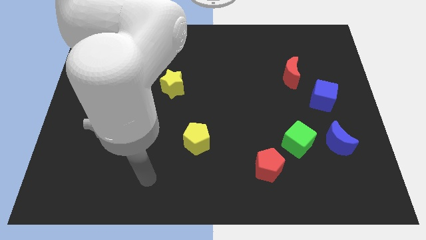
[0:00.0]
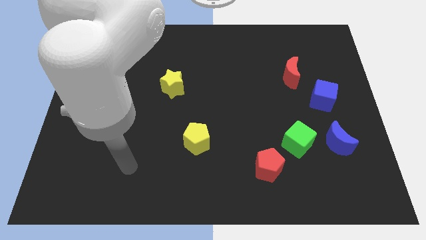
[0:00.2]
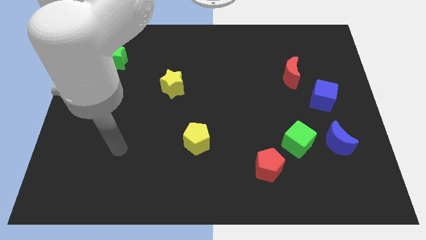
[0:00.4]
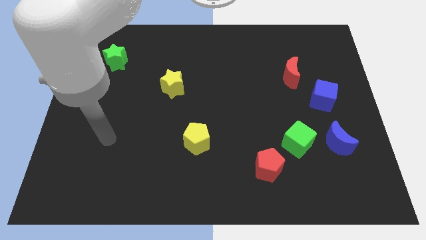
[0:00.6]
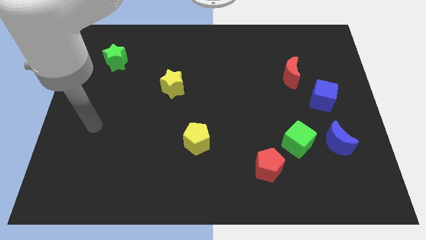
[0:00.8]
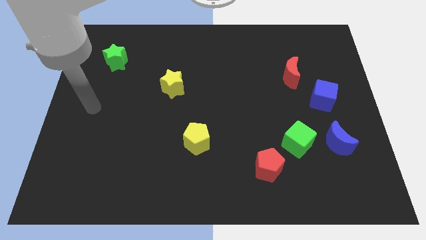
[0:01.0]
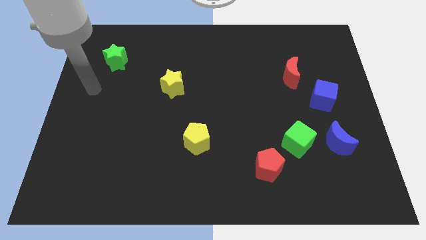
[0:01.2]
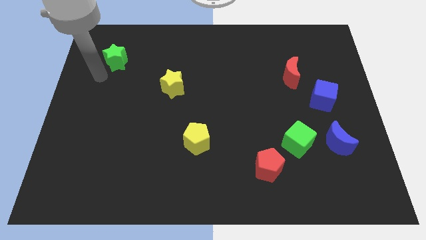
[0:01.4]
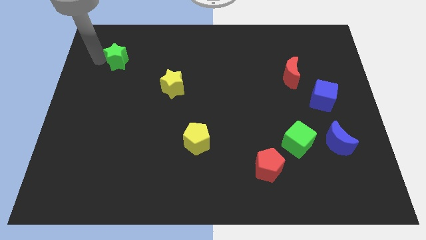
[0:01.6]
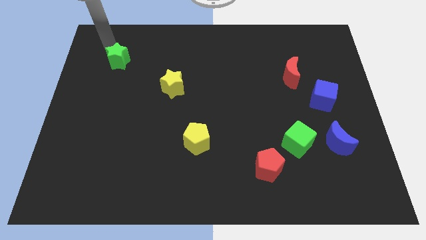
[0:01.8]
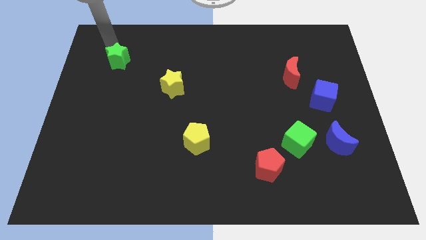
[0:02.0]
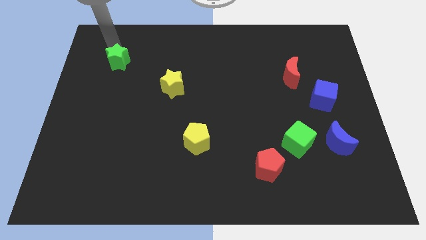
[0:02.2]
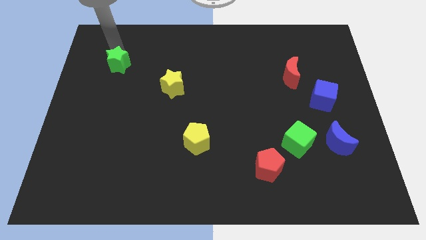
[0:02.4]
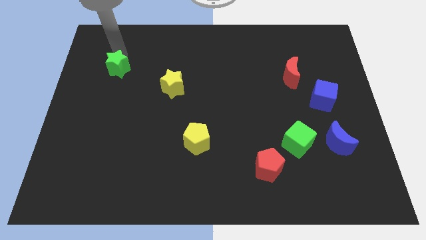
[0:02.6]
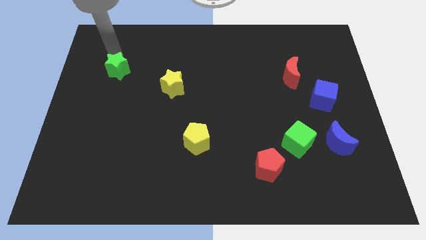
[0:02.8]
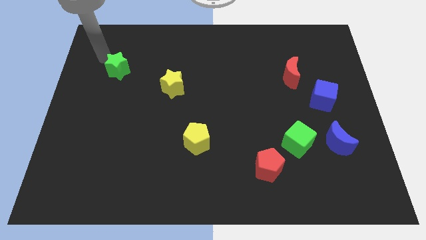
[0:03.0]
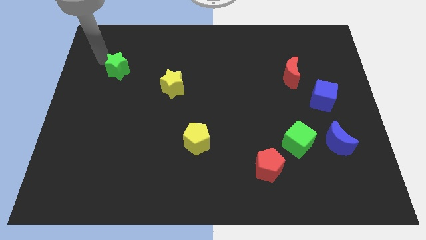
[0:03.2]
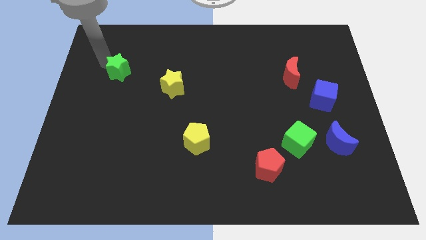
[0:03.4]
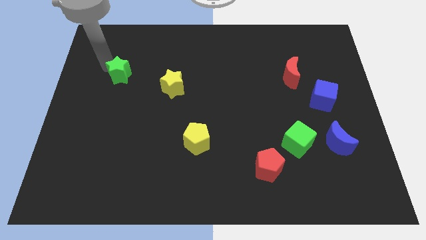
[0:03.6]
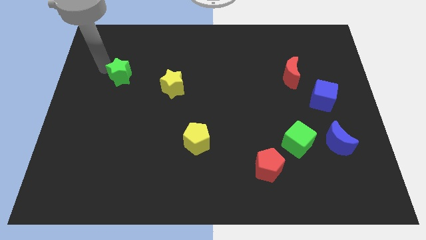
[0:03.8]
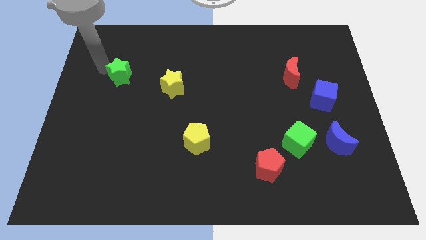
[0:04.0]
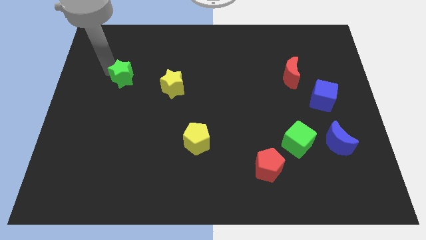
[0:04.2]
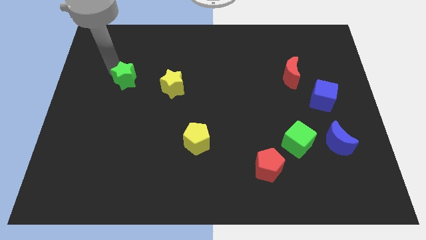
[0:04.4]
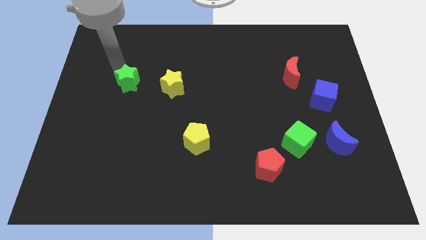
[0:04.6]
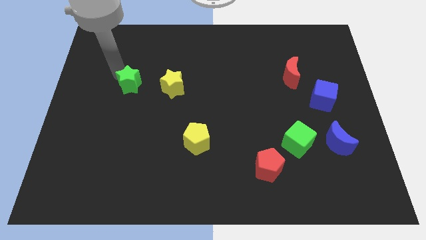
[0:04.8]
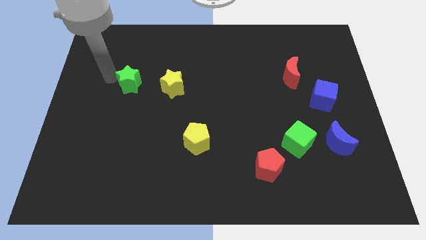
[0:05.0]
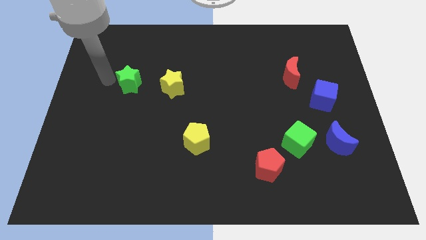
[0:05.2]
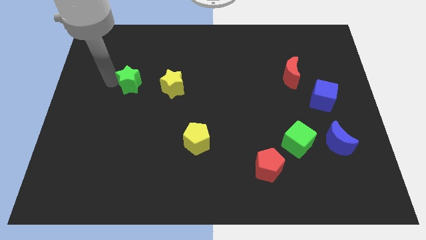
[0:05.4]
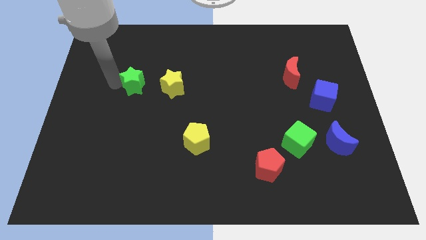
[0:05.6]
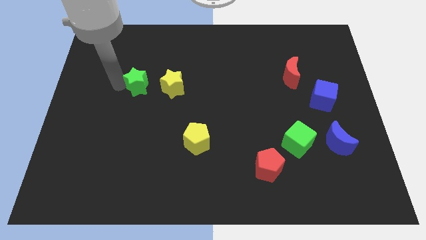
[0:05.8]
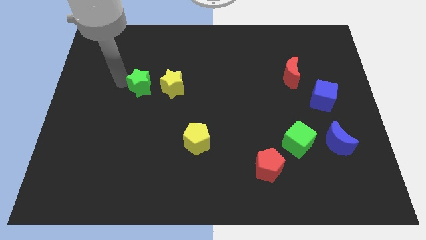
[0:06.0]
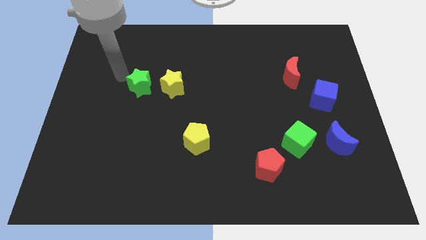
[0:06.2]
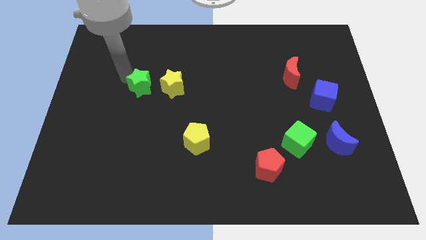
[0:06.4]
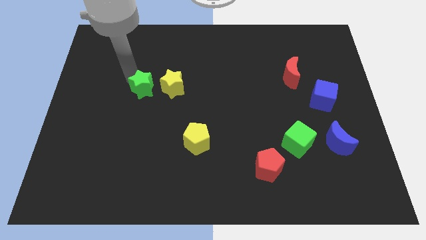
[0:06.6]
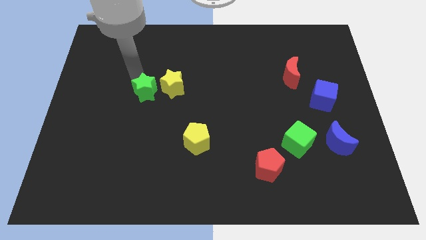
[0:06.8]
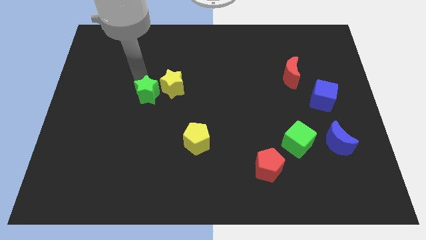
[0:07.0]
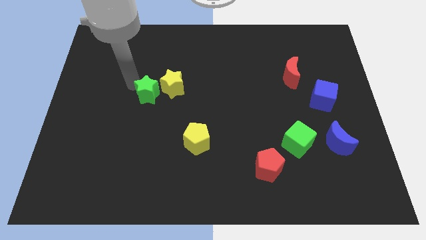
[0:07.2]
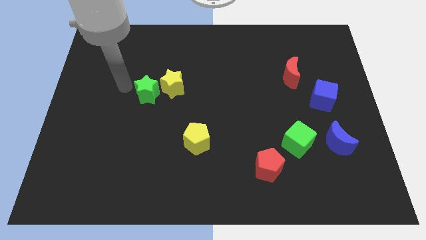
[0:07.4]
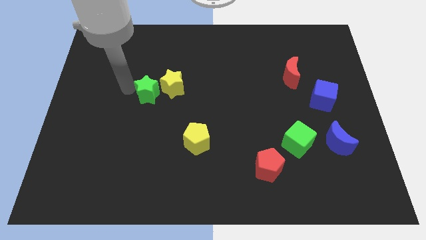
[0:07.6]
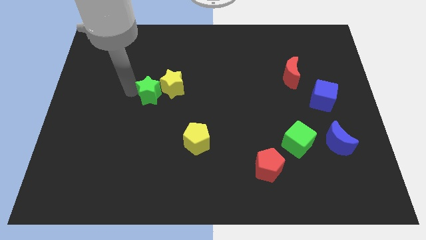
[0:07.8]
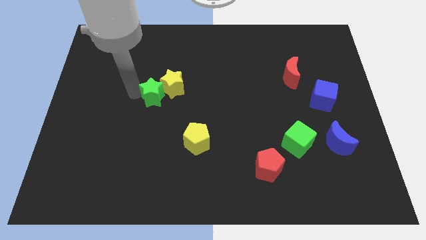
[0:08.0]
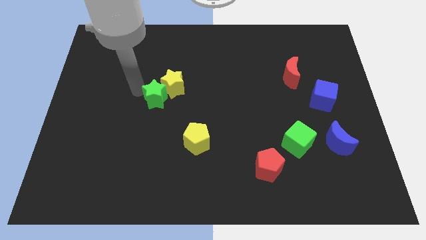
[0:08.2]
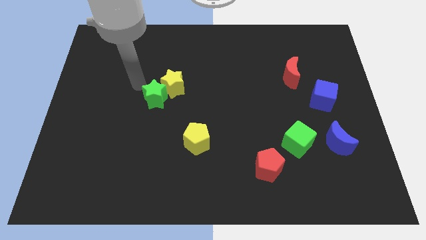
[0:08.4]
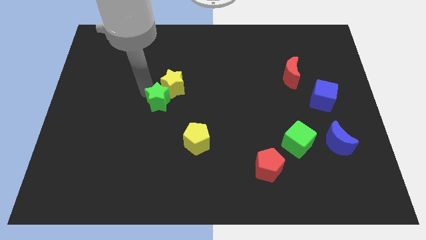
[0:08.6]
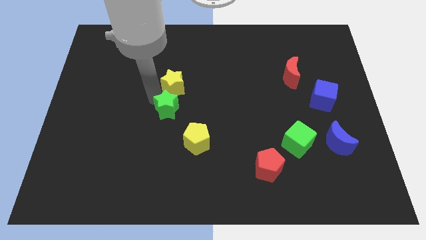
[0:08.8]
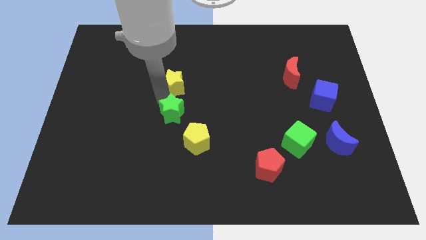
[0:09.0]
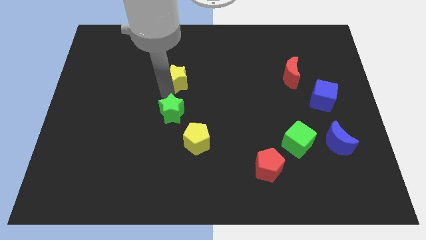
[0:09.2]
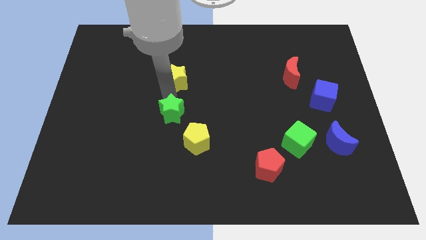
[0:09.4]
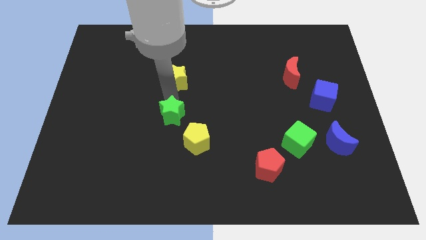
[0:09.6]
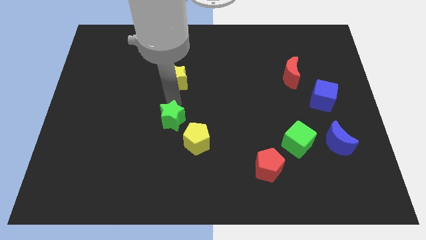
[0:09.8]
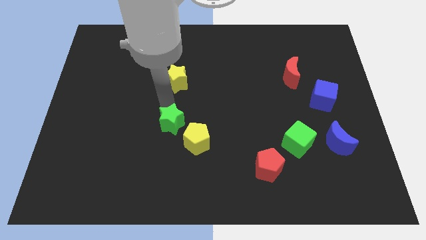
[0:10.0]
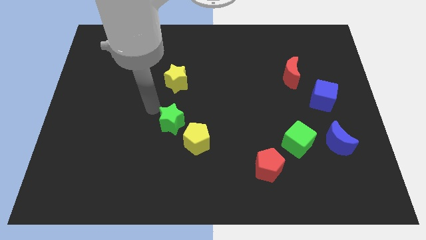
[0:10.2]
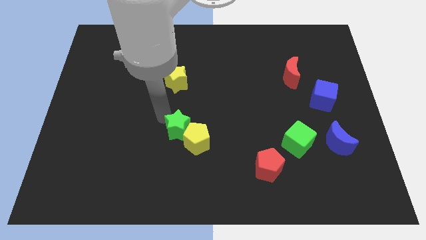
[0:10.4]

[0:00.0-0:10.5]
push the green star close to the yellow pentagon

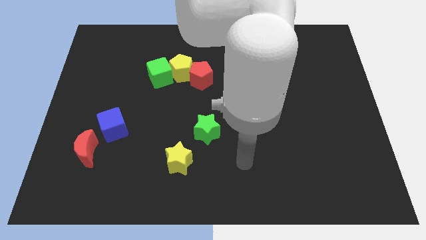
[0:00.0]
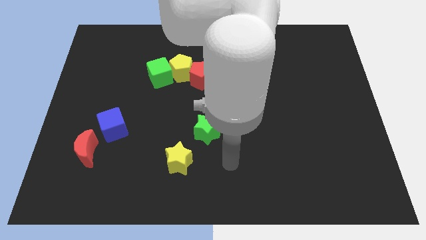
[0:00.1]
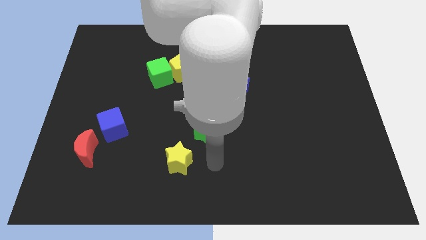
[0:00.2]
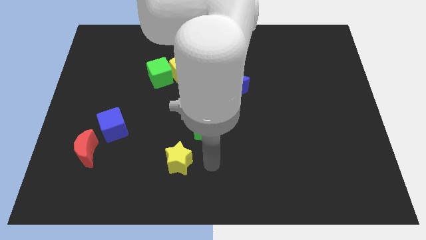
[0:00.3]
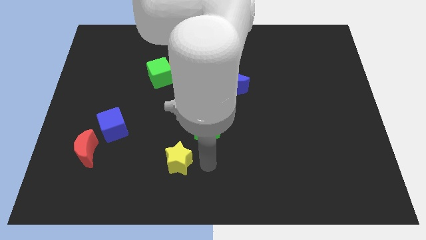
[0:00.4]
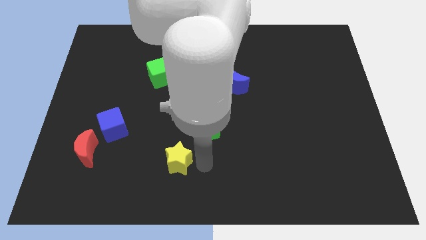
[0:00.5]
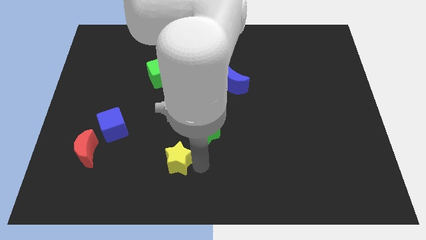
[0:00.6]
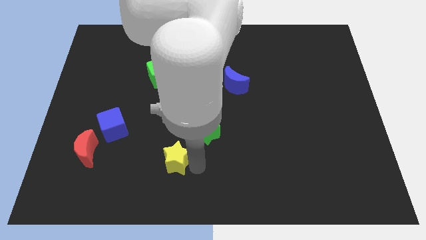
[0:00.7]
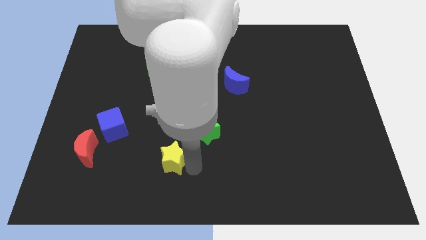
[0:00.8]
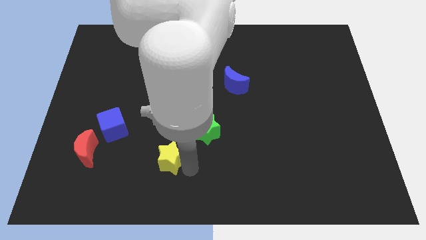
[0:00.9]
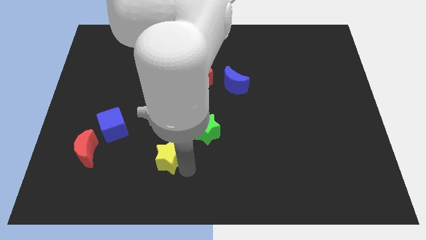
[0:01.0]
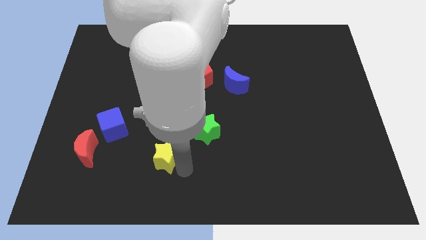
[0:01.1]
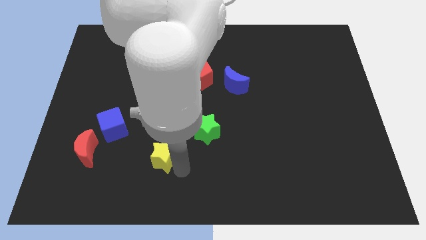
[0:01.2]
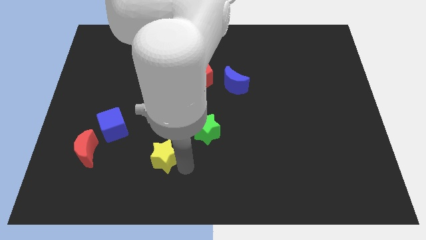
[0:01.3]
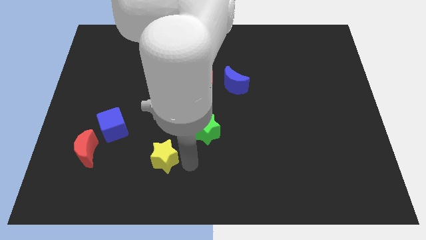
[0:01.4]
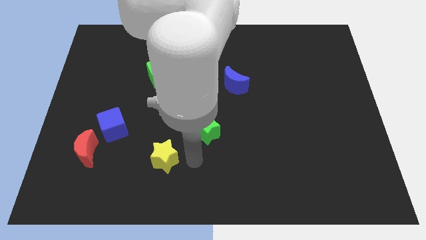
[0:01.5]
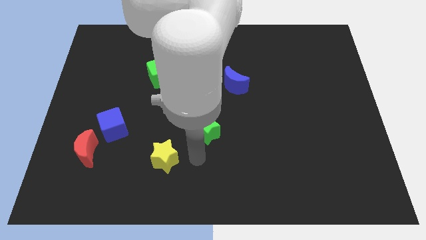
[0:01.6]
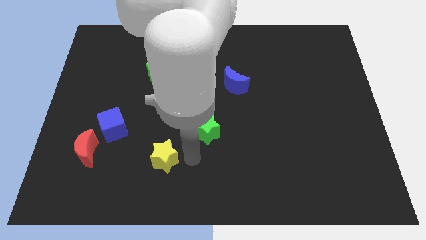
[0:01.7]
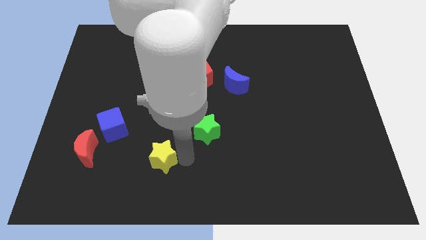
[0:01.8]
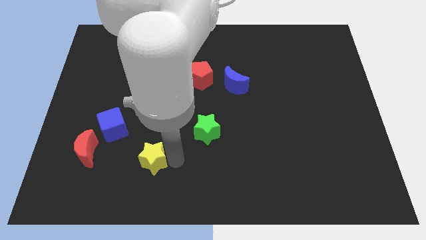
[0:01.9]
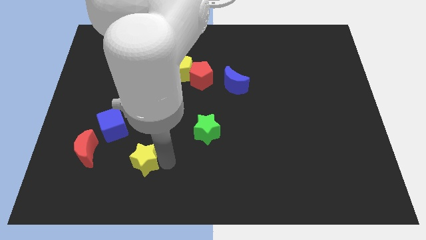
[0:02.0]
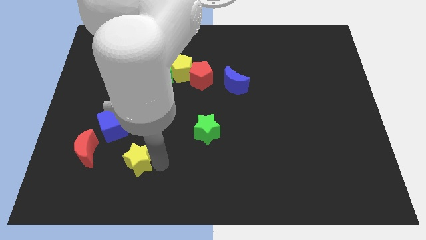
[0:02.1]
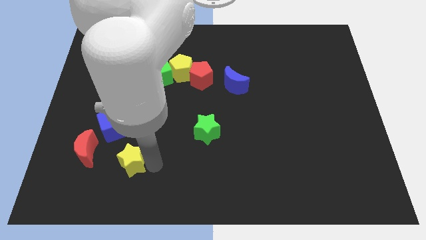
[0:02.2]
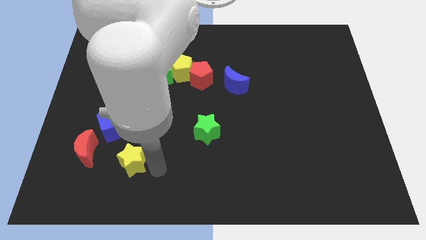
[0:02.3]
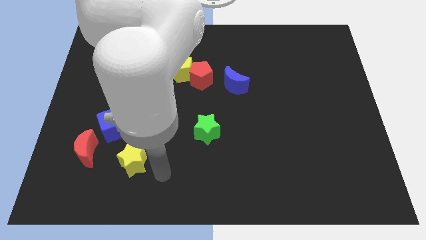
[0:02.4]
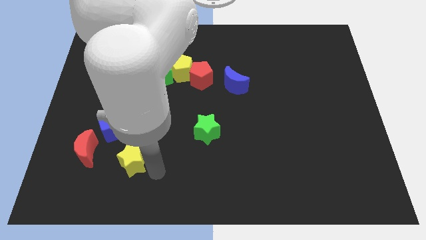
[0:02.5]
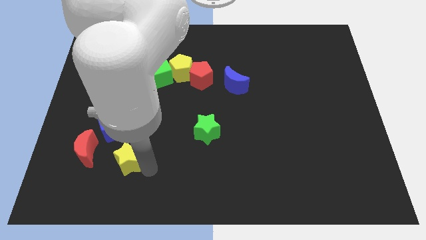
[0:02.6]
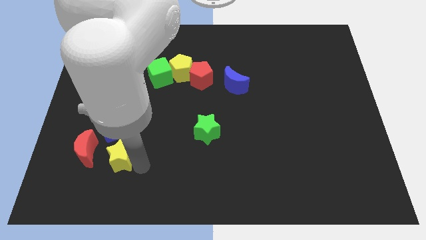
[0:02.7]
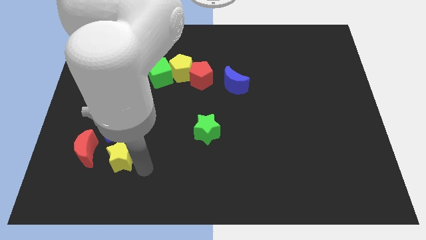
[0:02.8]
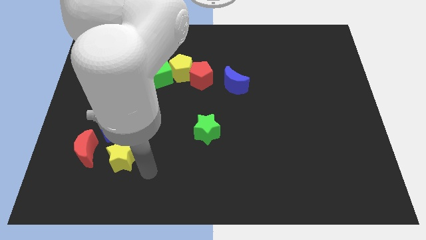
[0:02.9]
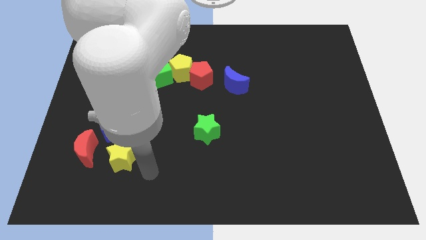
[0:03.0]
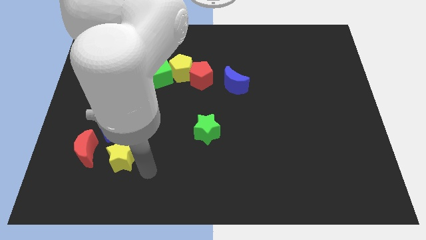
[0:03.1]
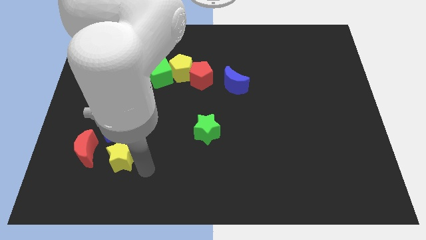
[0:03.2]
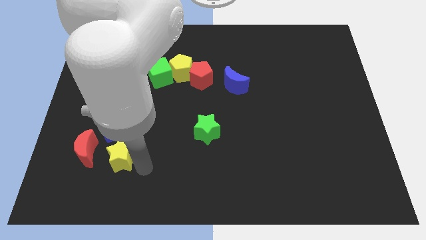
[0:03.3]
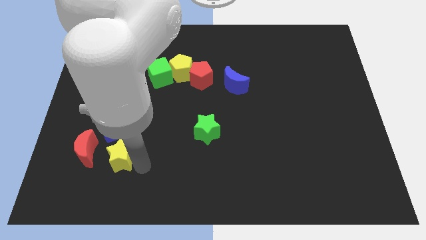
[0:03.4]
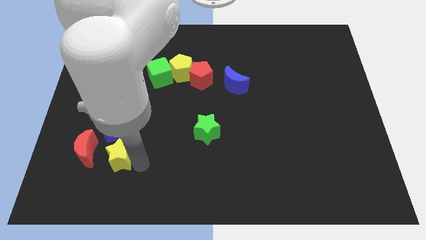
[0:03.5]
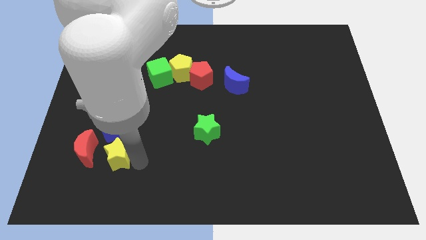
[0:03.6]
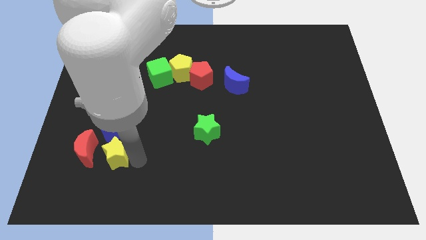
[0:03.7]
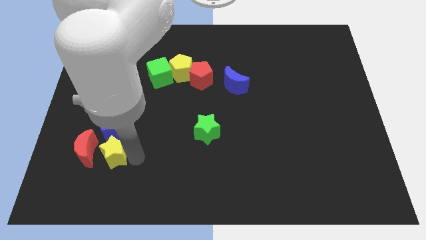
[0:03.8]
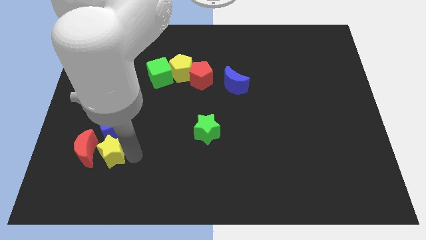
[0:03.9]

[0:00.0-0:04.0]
push the yellow star close to the red moon
